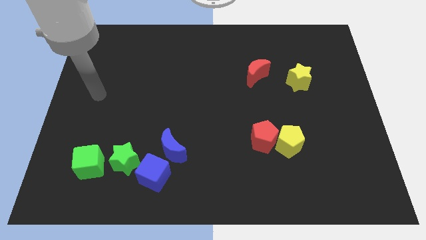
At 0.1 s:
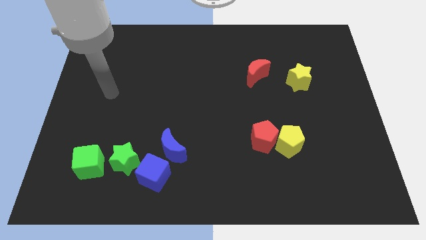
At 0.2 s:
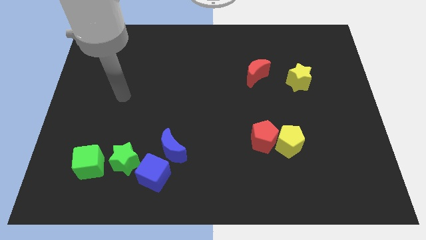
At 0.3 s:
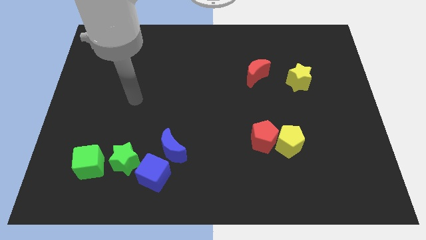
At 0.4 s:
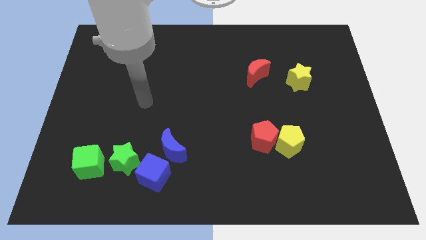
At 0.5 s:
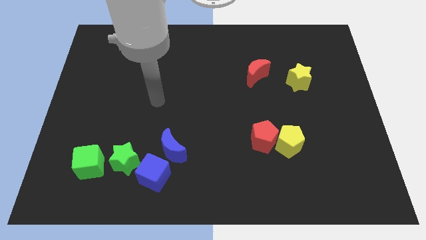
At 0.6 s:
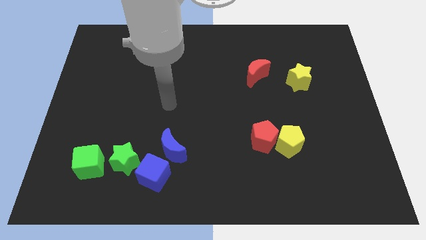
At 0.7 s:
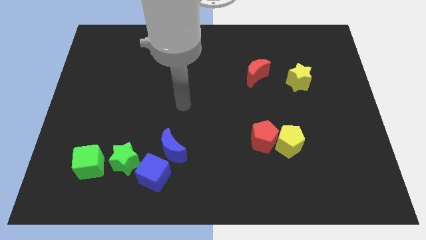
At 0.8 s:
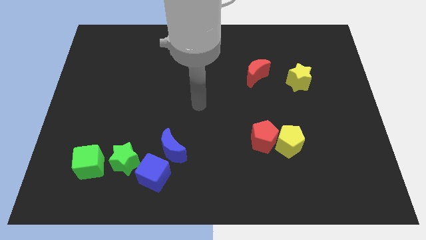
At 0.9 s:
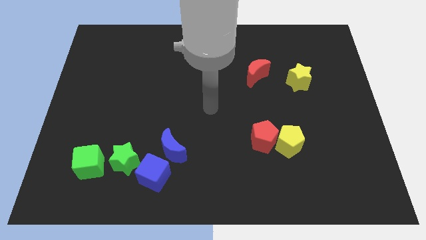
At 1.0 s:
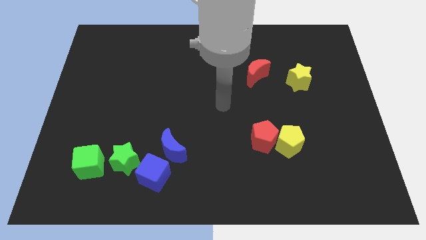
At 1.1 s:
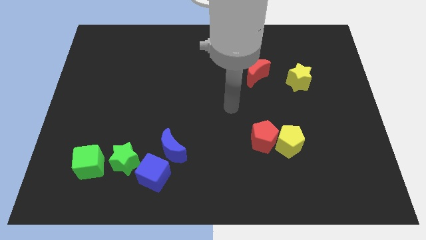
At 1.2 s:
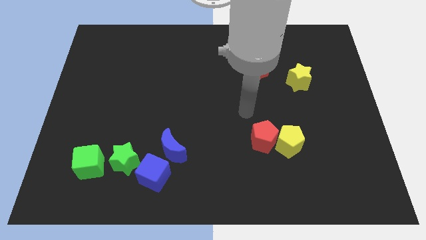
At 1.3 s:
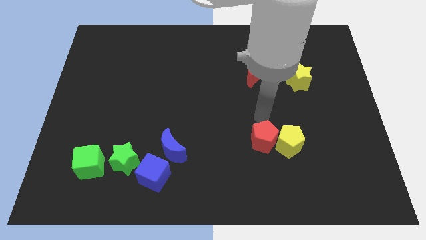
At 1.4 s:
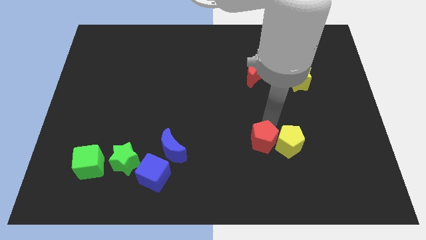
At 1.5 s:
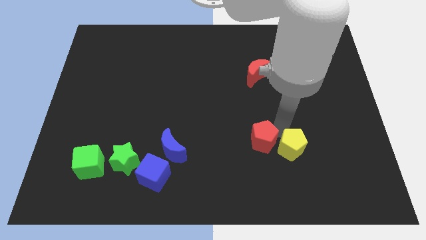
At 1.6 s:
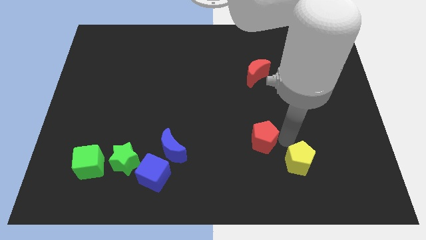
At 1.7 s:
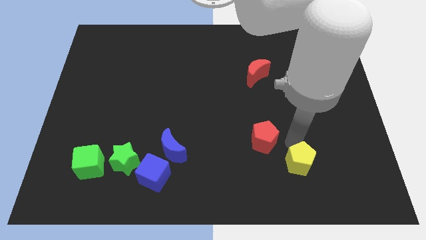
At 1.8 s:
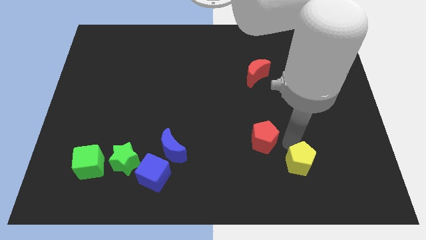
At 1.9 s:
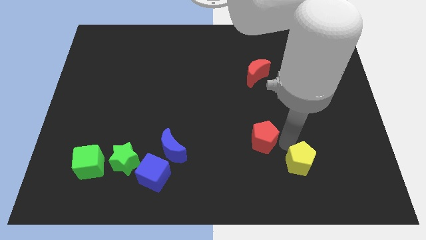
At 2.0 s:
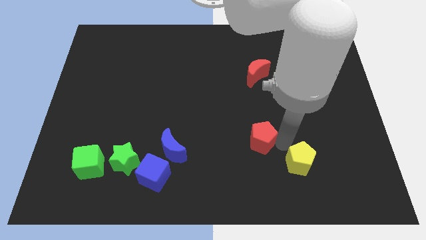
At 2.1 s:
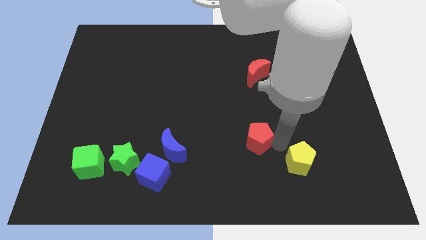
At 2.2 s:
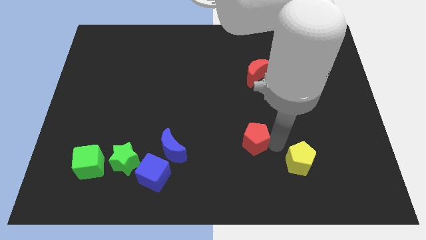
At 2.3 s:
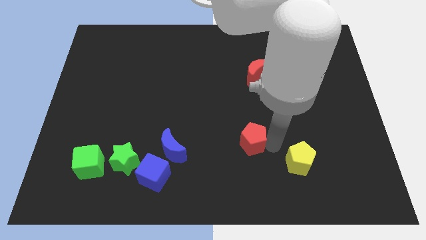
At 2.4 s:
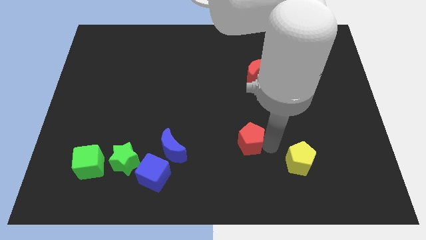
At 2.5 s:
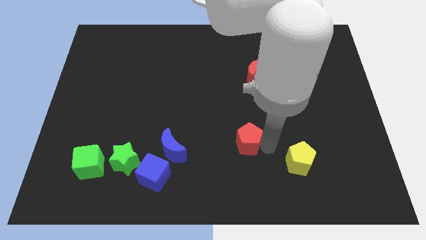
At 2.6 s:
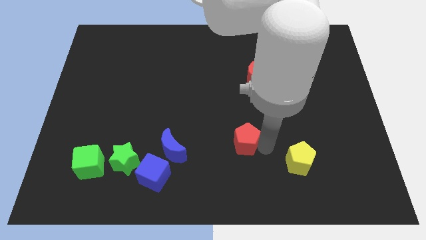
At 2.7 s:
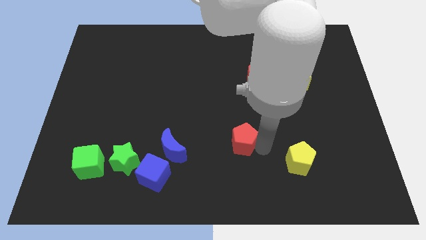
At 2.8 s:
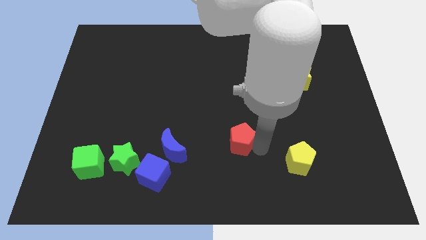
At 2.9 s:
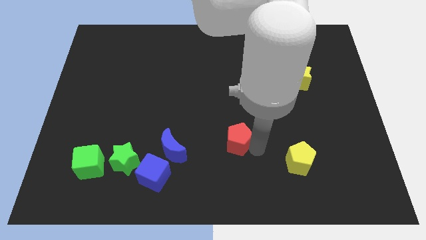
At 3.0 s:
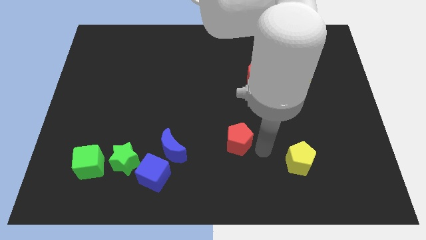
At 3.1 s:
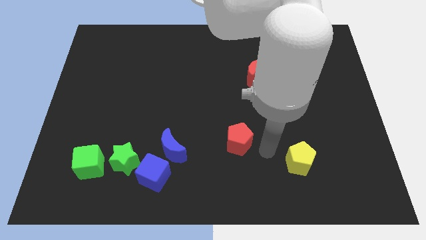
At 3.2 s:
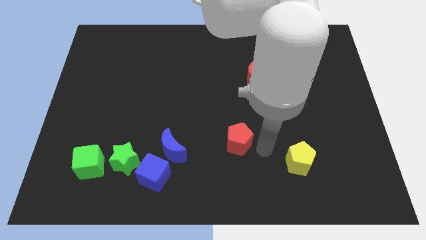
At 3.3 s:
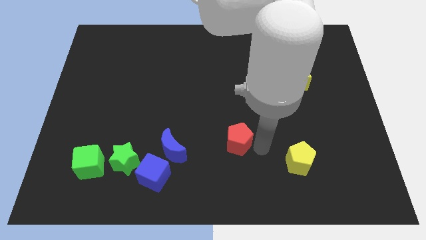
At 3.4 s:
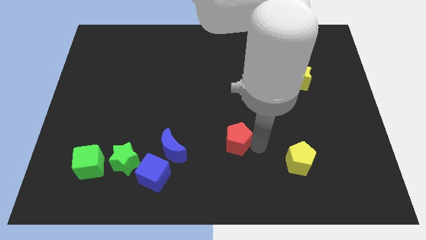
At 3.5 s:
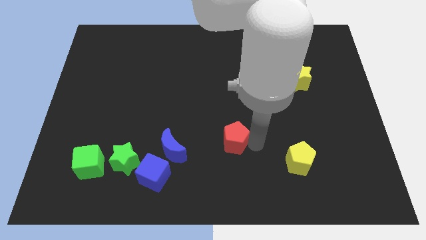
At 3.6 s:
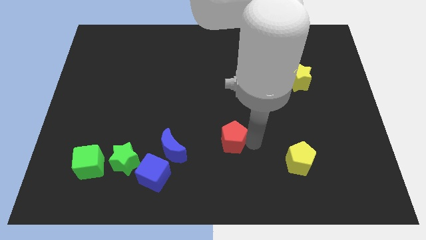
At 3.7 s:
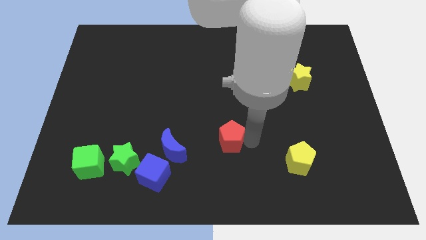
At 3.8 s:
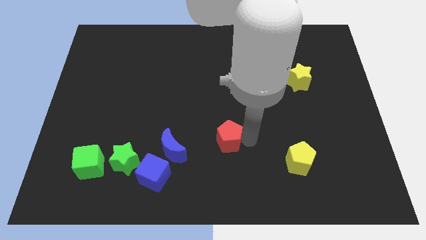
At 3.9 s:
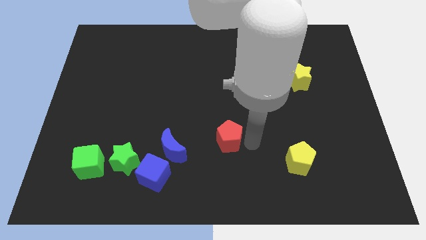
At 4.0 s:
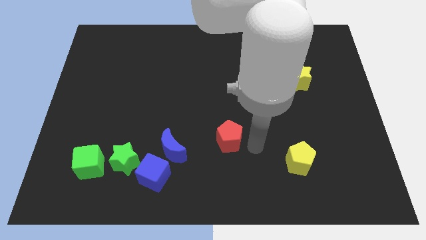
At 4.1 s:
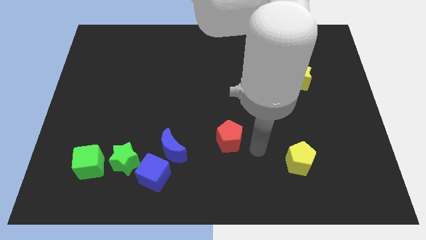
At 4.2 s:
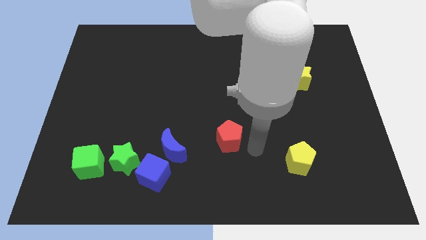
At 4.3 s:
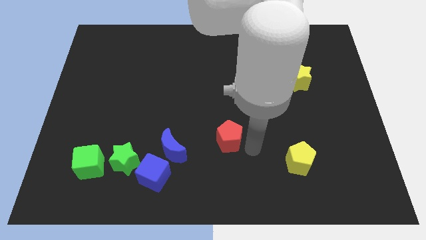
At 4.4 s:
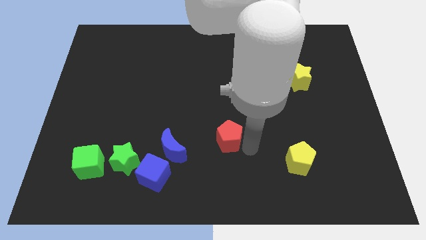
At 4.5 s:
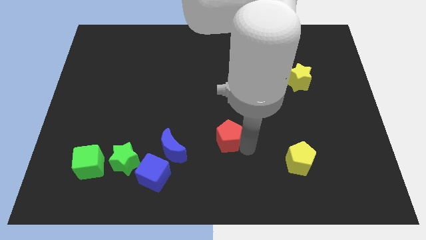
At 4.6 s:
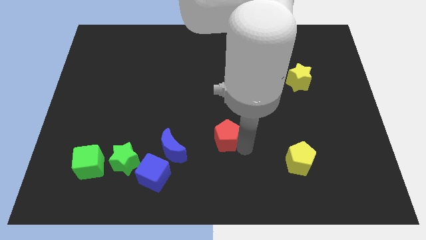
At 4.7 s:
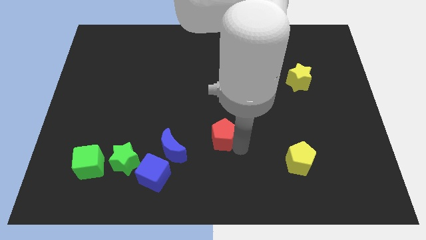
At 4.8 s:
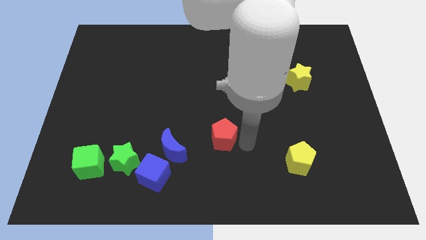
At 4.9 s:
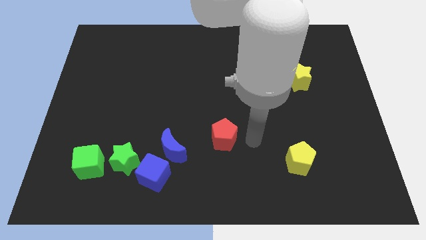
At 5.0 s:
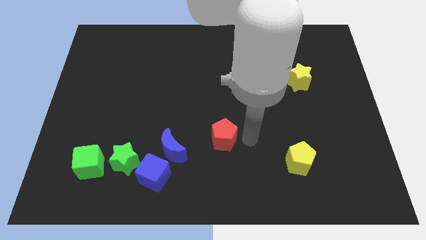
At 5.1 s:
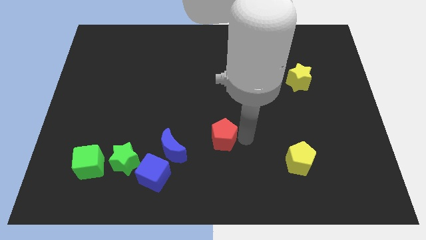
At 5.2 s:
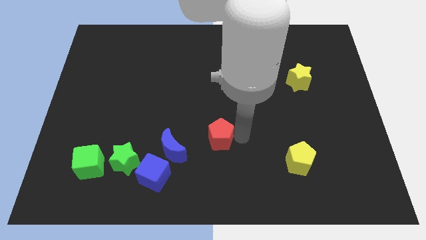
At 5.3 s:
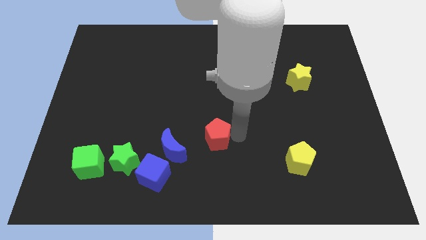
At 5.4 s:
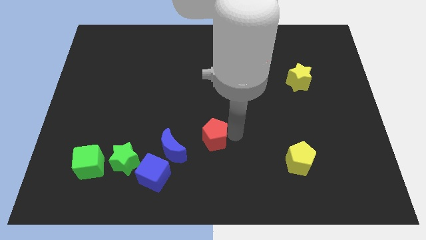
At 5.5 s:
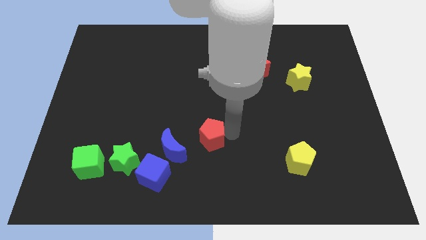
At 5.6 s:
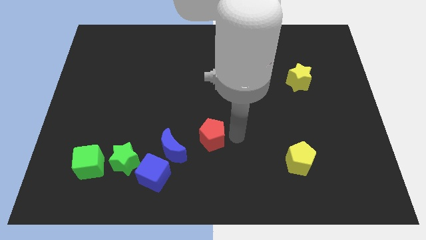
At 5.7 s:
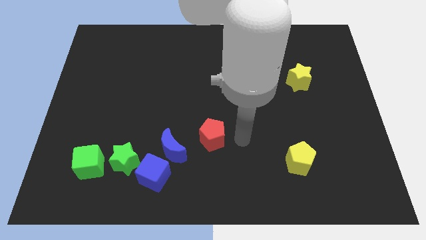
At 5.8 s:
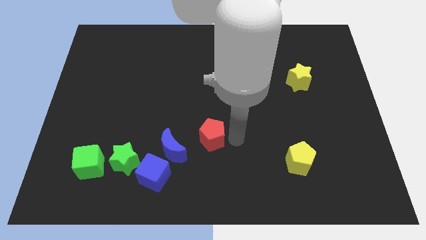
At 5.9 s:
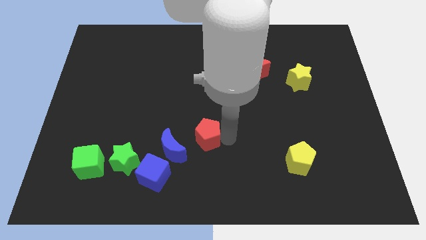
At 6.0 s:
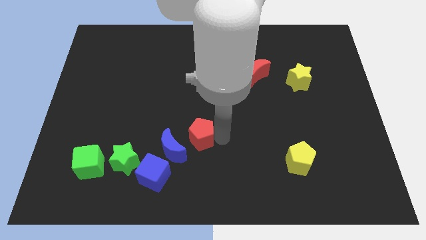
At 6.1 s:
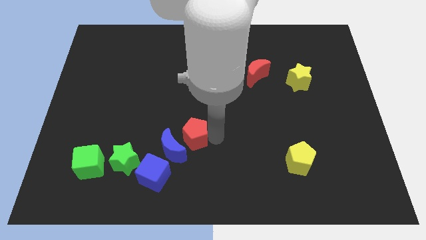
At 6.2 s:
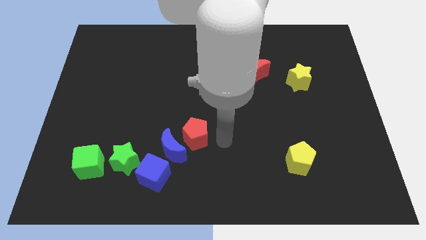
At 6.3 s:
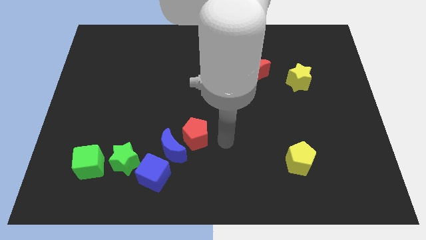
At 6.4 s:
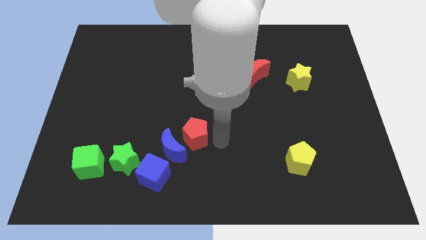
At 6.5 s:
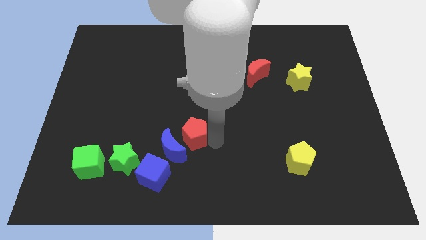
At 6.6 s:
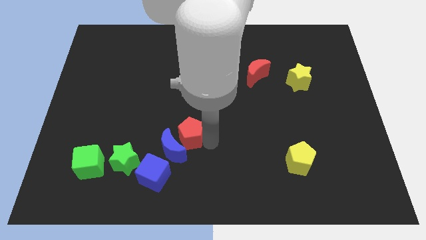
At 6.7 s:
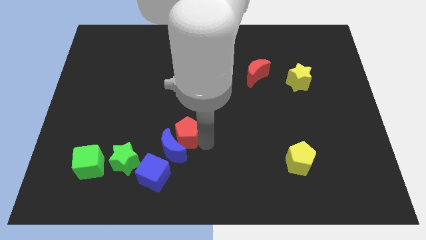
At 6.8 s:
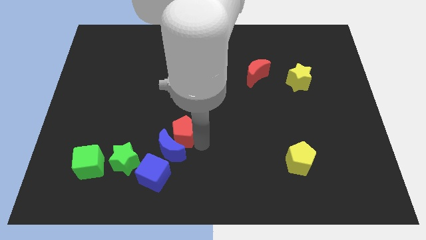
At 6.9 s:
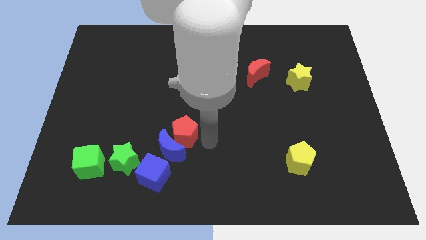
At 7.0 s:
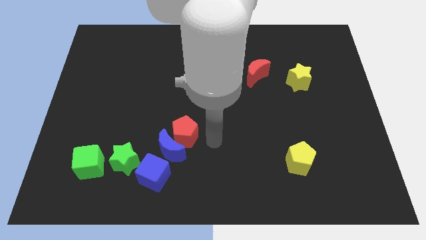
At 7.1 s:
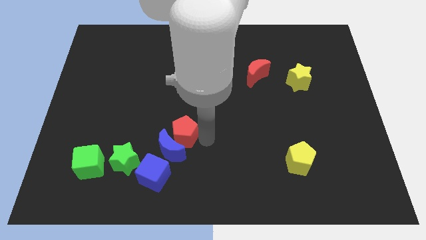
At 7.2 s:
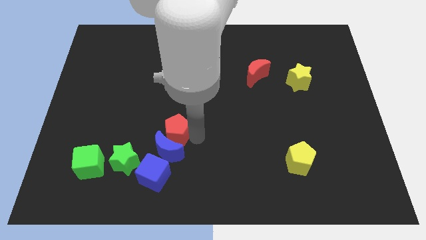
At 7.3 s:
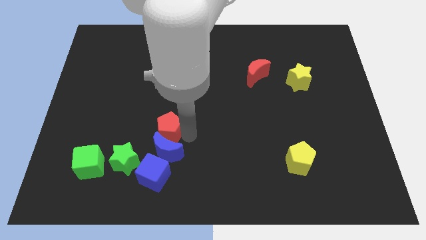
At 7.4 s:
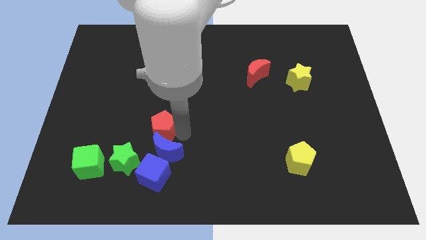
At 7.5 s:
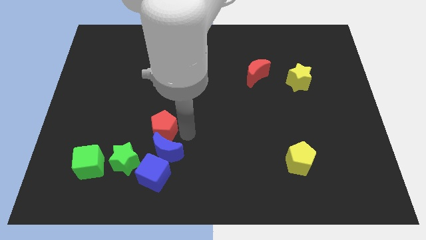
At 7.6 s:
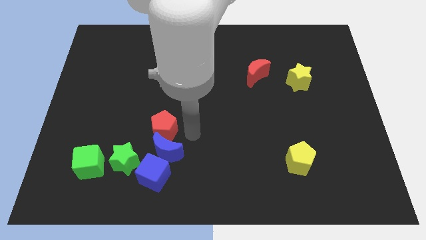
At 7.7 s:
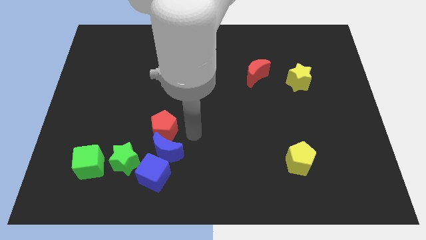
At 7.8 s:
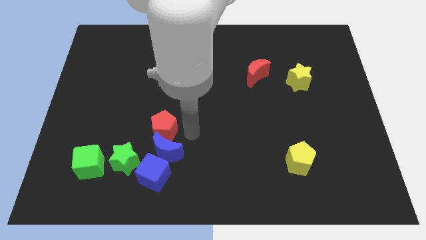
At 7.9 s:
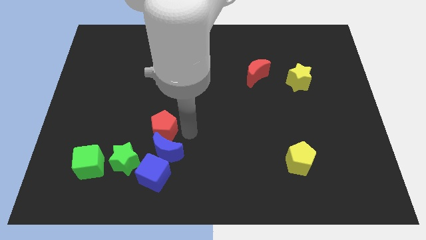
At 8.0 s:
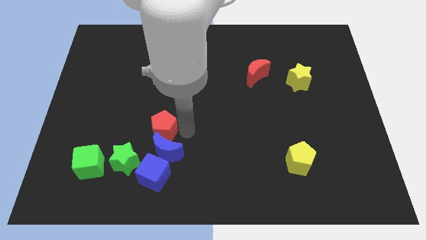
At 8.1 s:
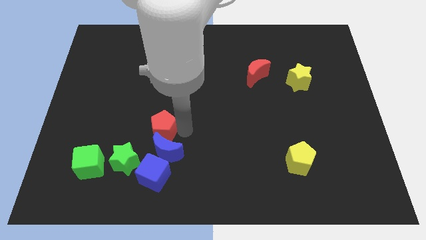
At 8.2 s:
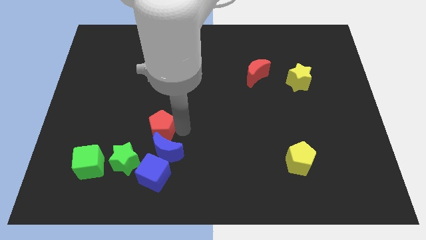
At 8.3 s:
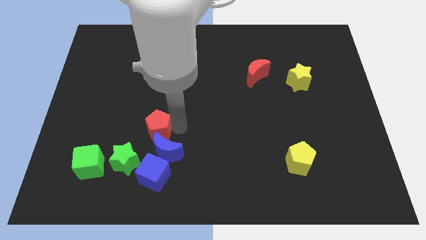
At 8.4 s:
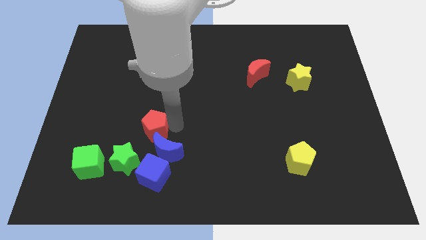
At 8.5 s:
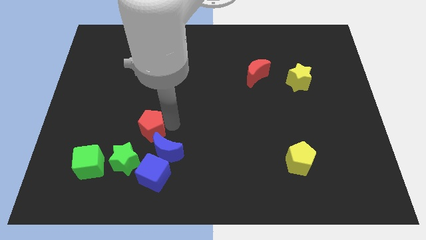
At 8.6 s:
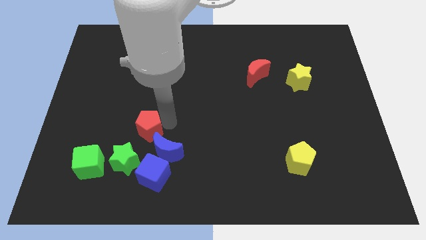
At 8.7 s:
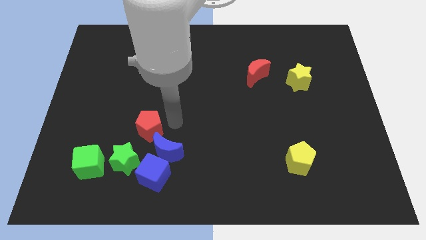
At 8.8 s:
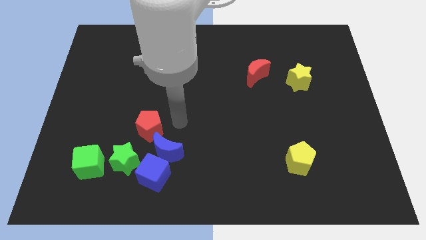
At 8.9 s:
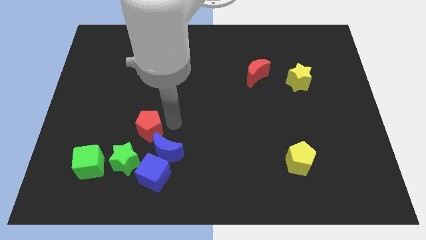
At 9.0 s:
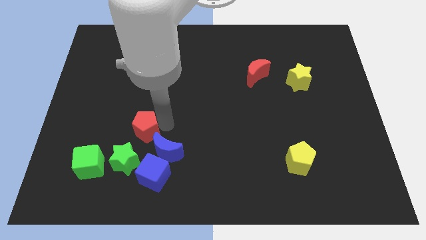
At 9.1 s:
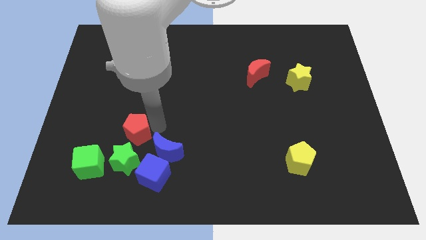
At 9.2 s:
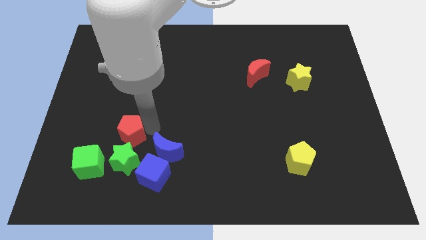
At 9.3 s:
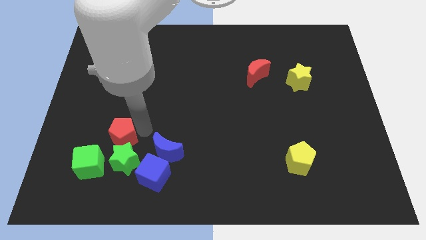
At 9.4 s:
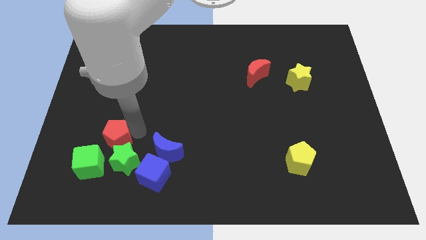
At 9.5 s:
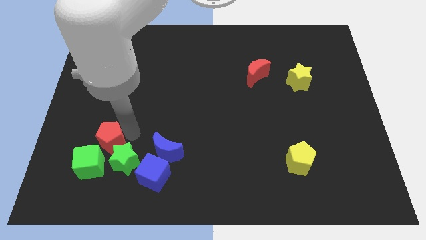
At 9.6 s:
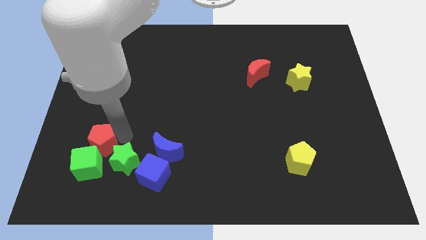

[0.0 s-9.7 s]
slide the red pentagon left of the green star
